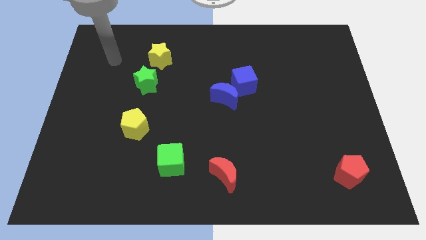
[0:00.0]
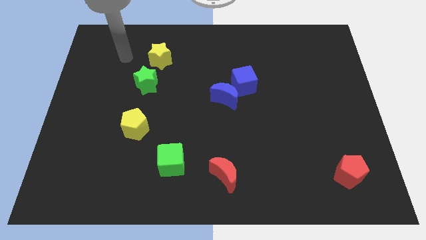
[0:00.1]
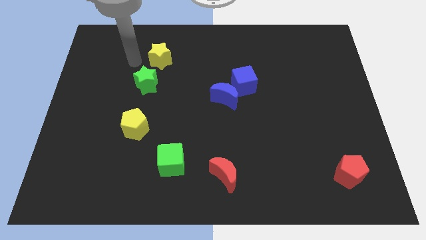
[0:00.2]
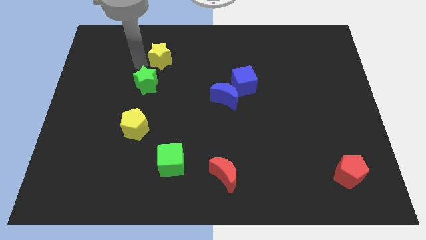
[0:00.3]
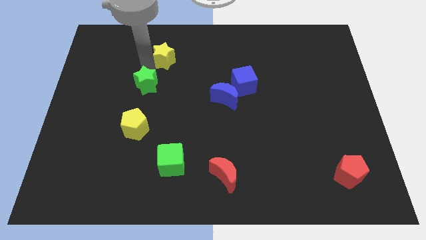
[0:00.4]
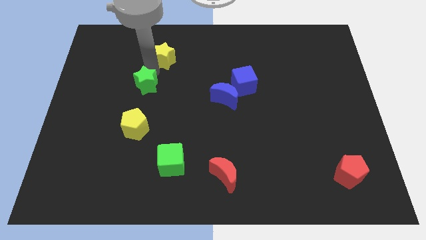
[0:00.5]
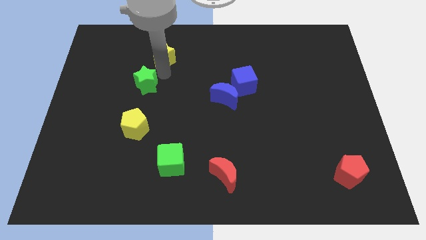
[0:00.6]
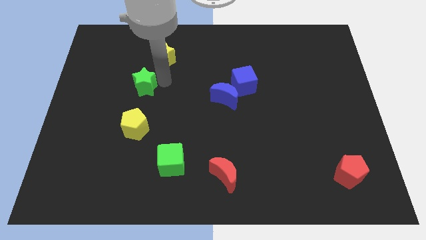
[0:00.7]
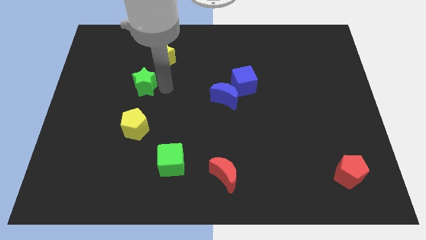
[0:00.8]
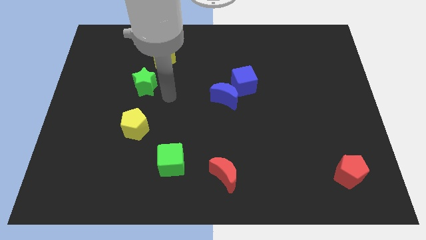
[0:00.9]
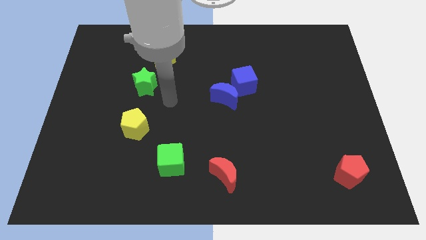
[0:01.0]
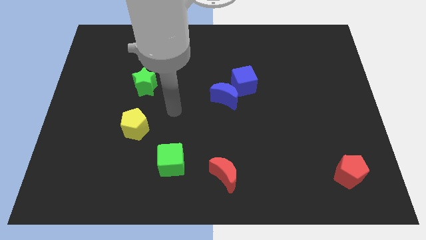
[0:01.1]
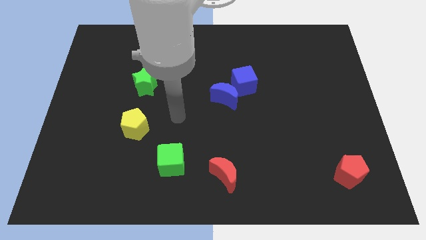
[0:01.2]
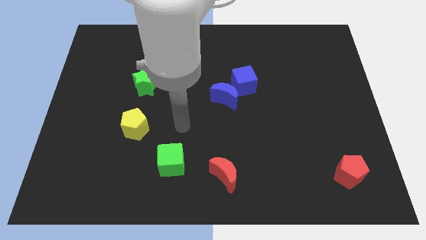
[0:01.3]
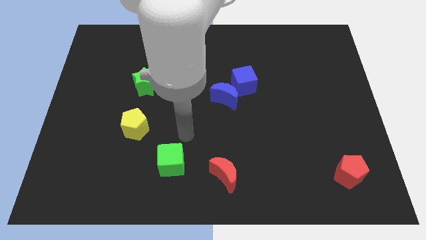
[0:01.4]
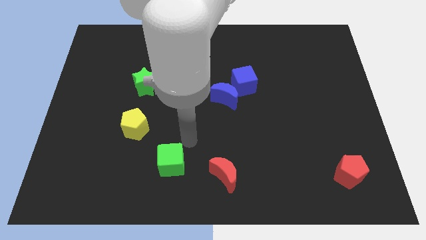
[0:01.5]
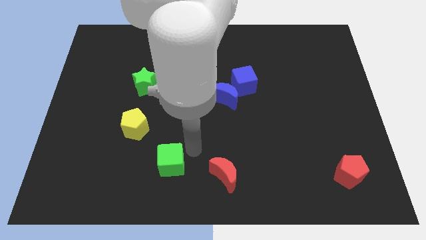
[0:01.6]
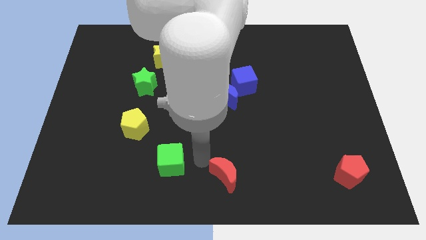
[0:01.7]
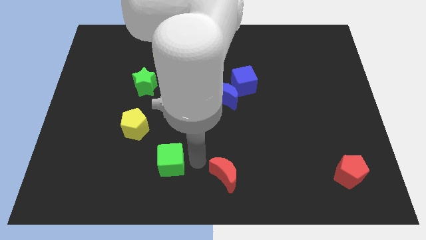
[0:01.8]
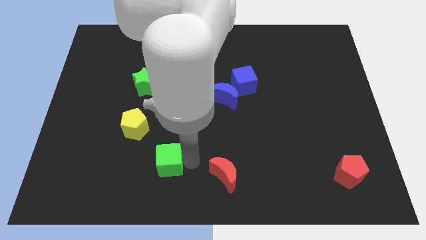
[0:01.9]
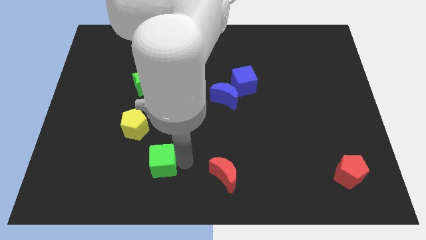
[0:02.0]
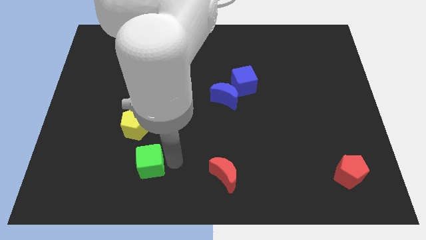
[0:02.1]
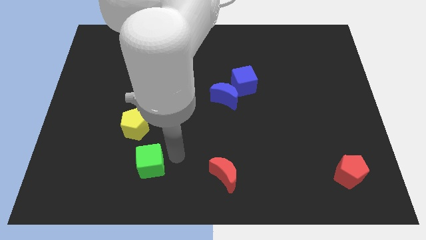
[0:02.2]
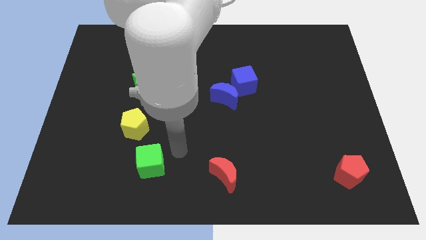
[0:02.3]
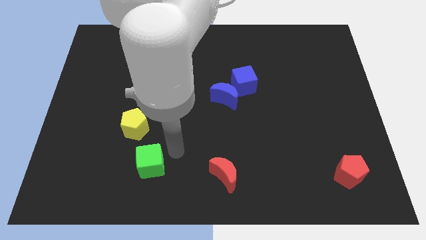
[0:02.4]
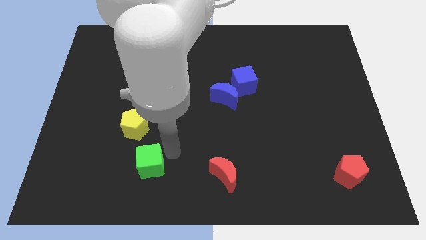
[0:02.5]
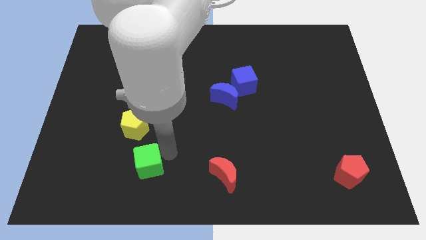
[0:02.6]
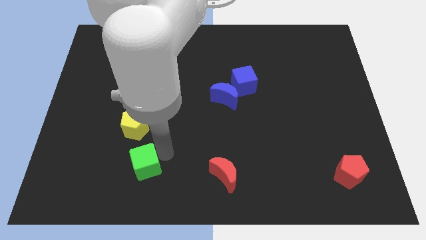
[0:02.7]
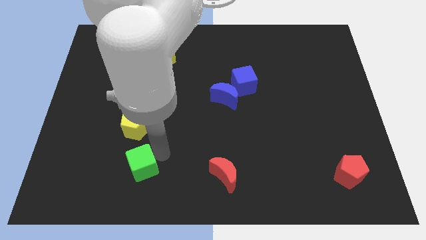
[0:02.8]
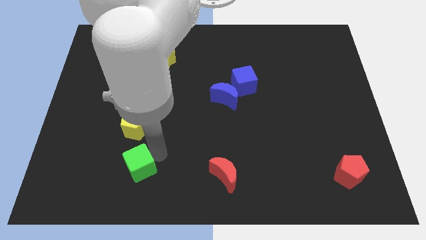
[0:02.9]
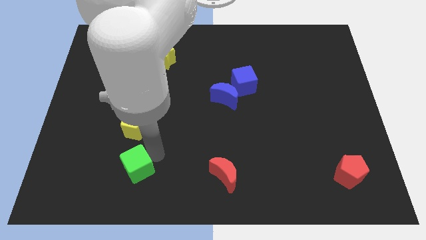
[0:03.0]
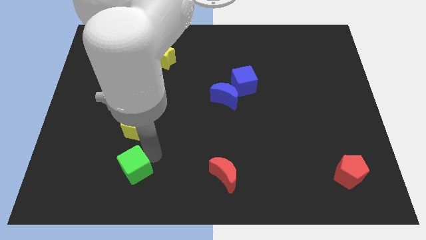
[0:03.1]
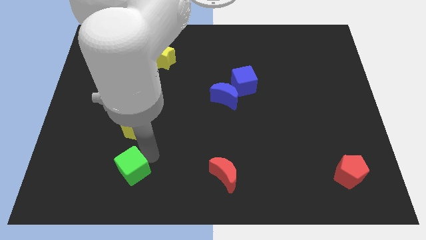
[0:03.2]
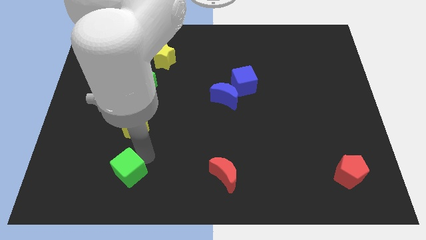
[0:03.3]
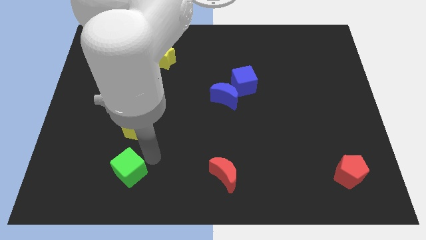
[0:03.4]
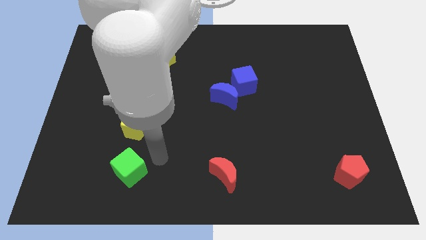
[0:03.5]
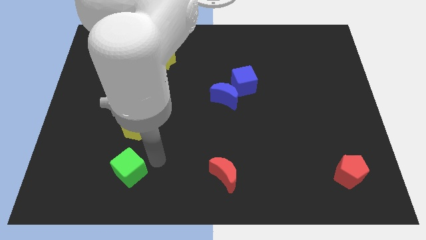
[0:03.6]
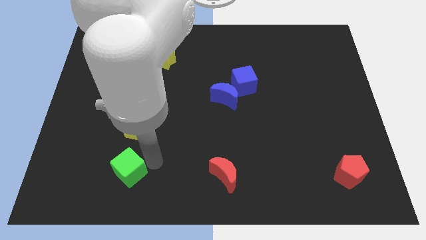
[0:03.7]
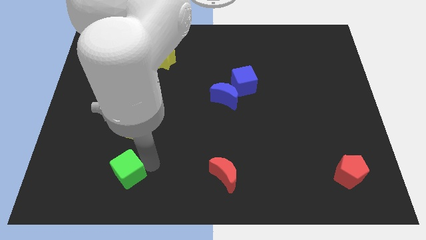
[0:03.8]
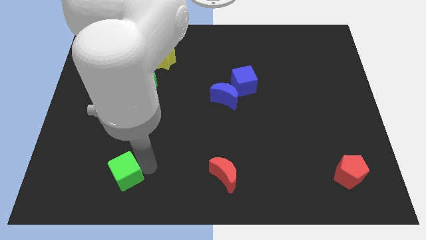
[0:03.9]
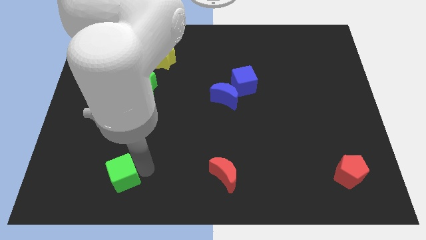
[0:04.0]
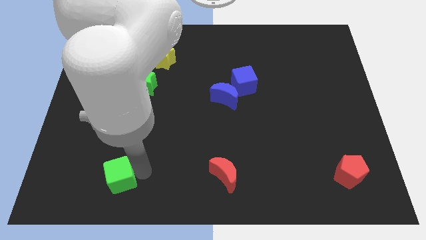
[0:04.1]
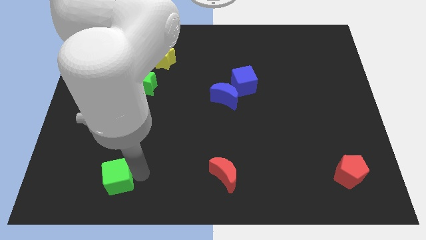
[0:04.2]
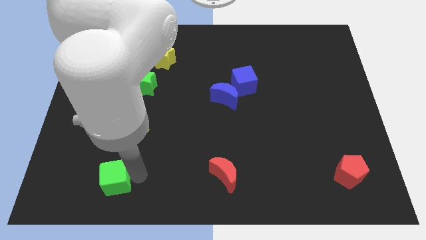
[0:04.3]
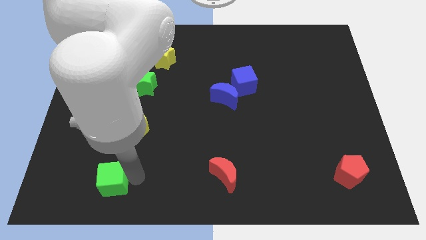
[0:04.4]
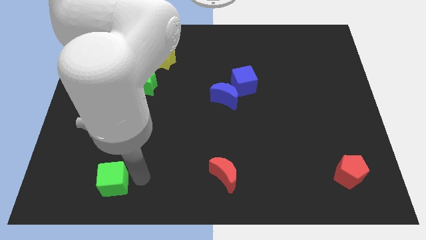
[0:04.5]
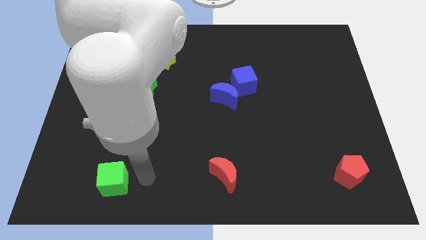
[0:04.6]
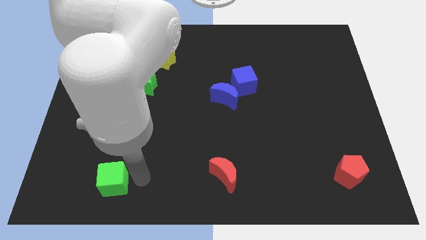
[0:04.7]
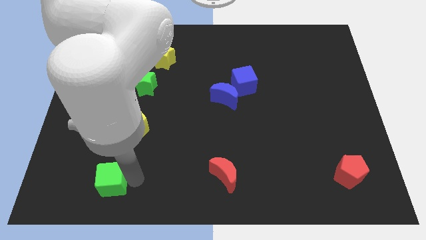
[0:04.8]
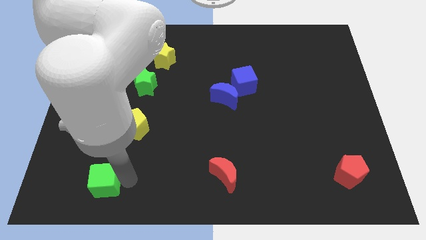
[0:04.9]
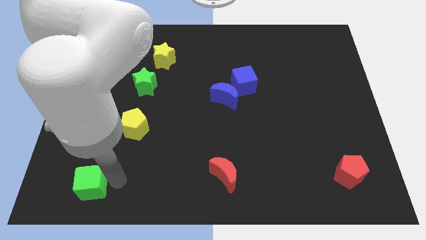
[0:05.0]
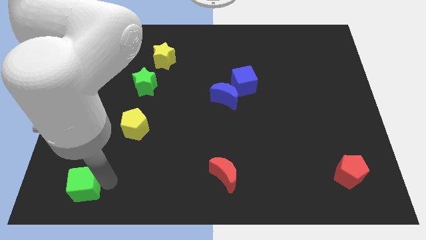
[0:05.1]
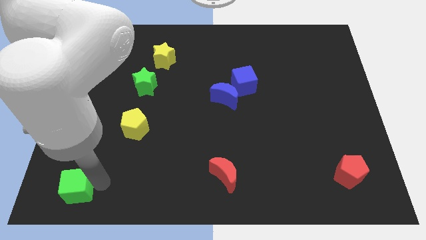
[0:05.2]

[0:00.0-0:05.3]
move the green cube to the bottom left corner

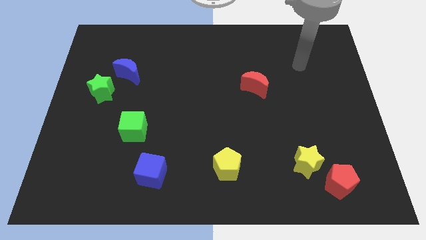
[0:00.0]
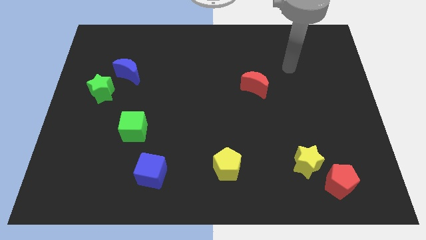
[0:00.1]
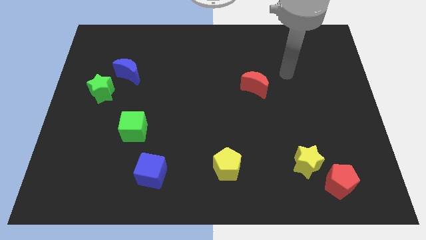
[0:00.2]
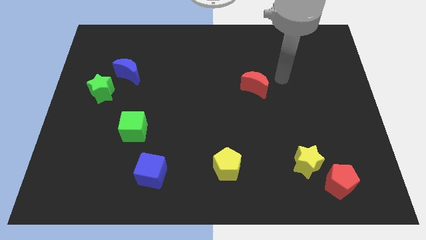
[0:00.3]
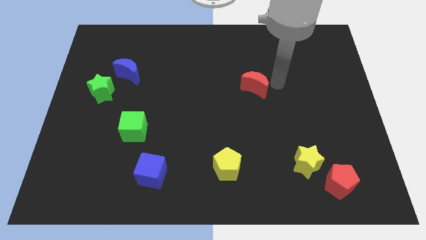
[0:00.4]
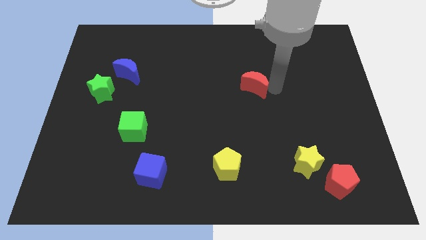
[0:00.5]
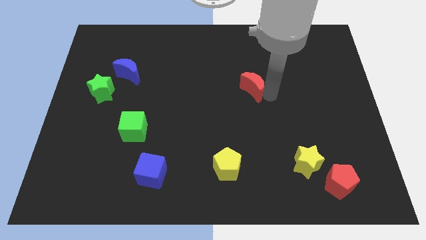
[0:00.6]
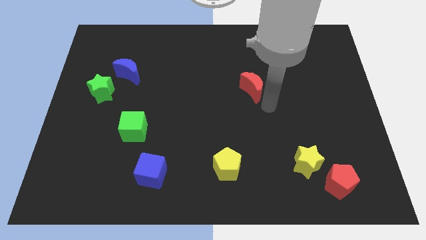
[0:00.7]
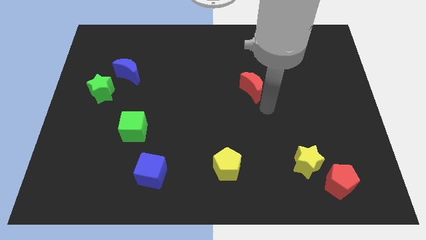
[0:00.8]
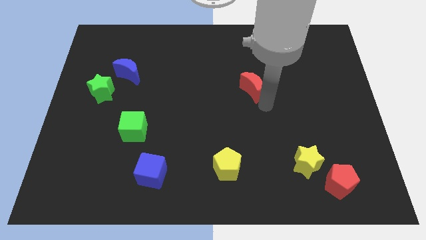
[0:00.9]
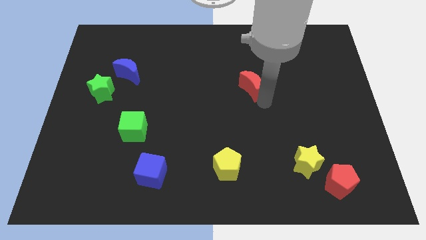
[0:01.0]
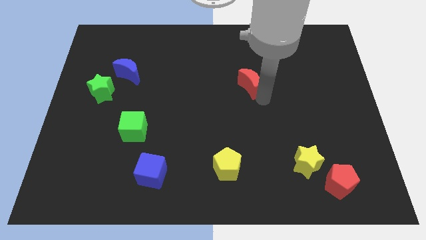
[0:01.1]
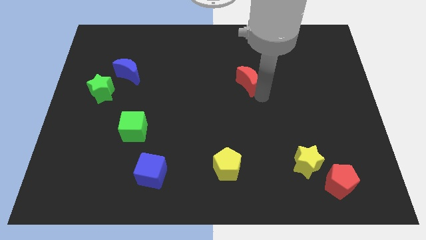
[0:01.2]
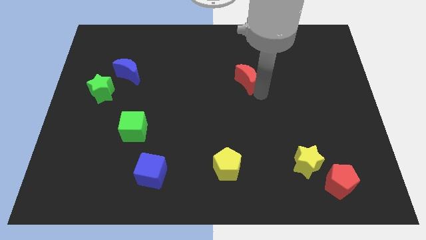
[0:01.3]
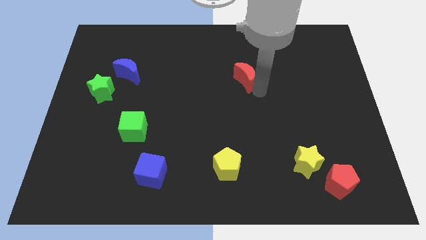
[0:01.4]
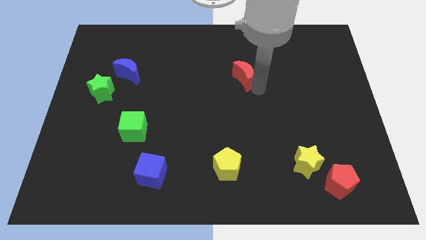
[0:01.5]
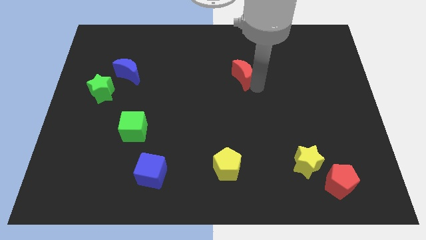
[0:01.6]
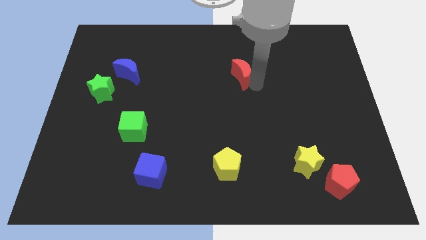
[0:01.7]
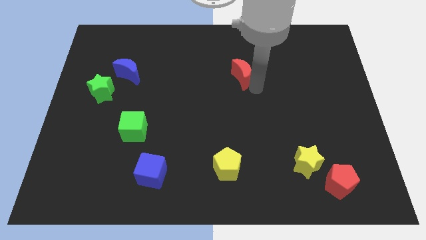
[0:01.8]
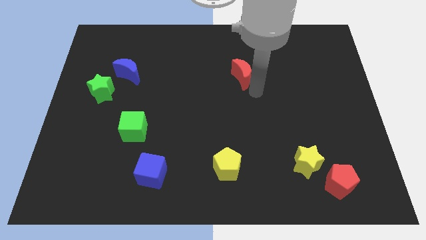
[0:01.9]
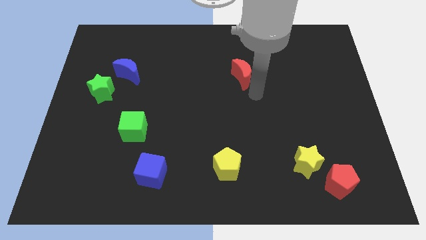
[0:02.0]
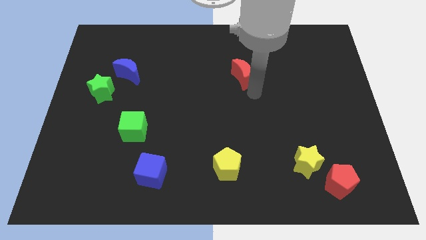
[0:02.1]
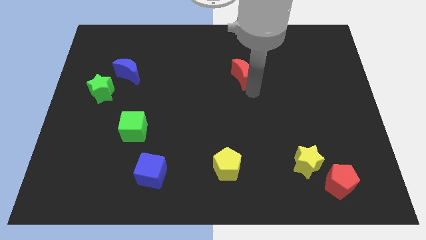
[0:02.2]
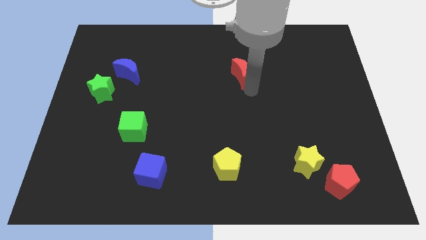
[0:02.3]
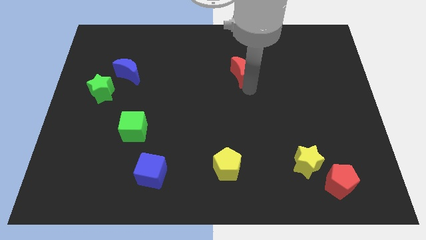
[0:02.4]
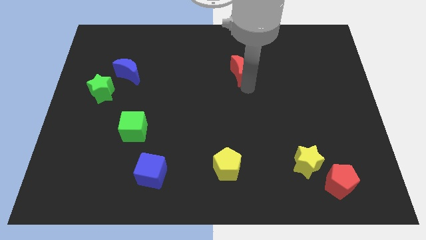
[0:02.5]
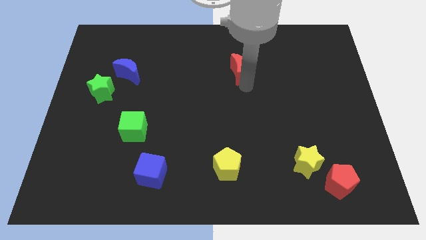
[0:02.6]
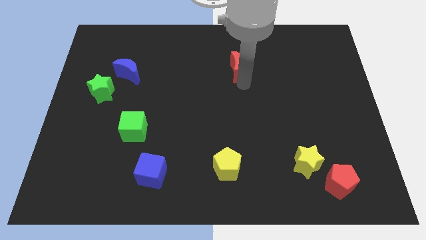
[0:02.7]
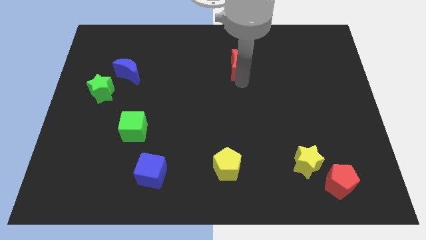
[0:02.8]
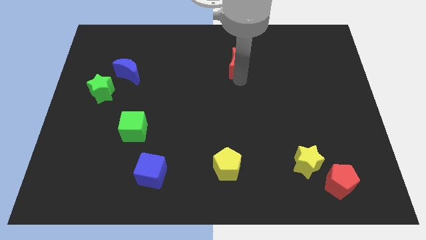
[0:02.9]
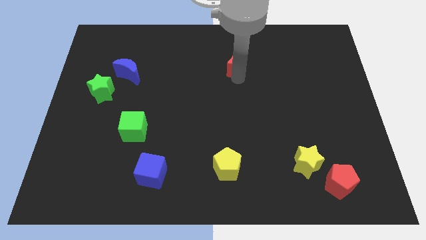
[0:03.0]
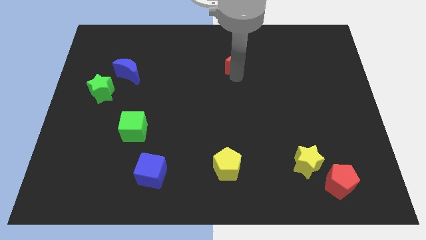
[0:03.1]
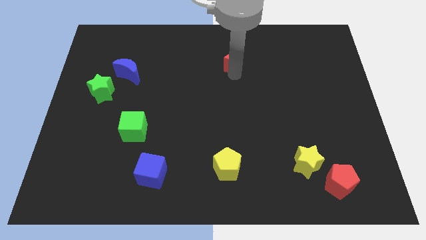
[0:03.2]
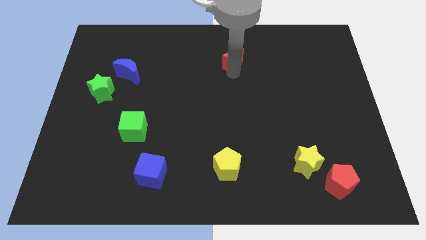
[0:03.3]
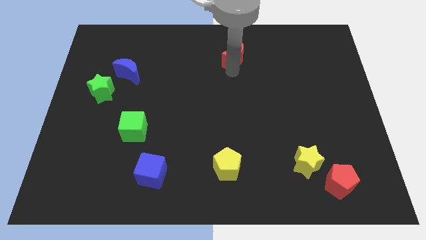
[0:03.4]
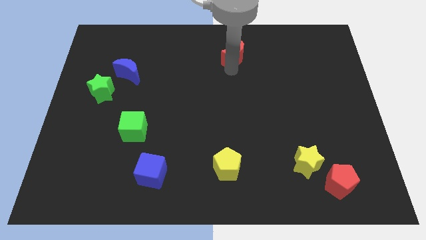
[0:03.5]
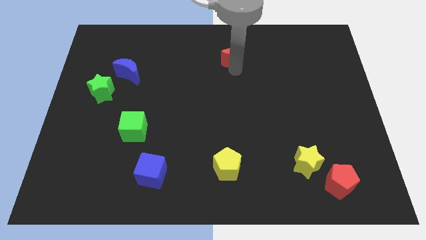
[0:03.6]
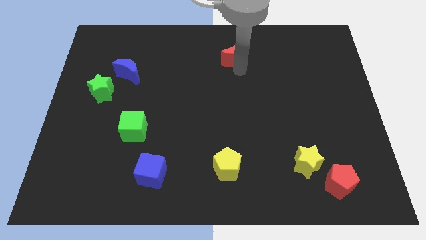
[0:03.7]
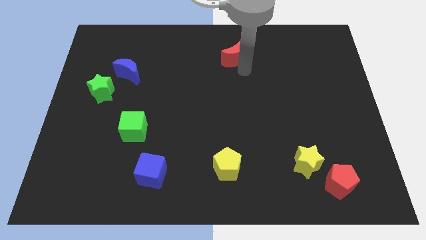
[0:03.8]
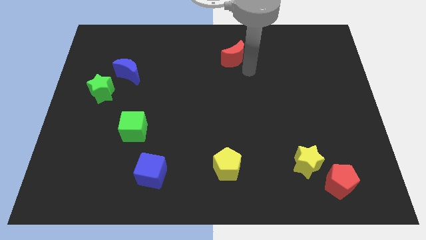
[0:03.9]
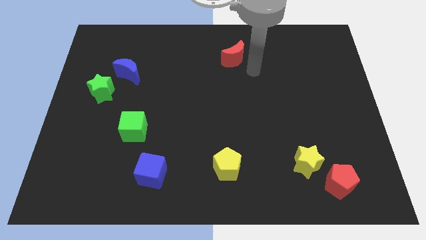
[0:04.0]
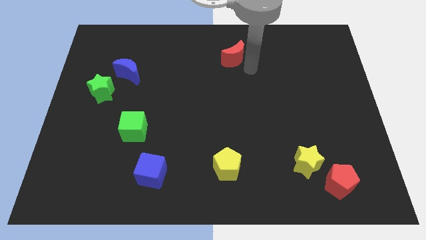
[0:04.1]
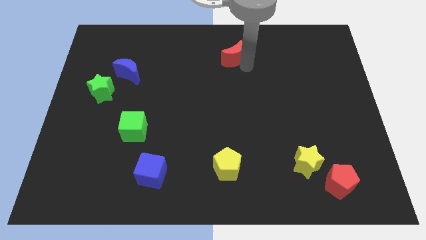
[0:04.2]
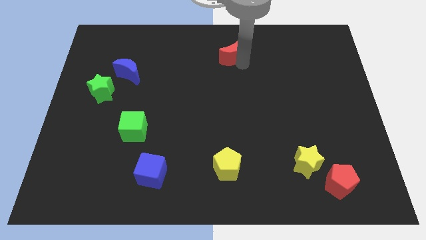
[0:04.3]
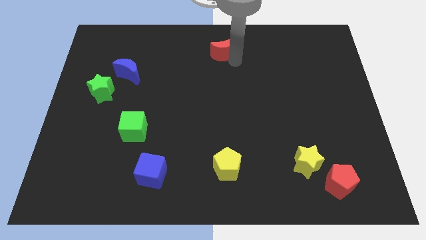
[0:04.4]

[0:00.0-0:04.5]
push the red moon to the top side
